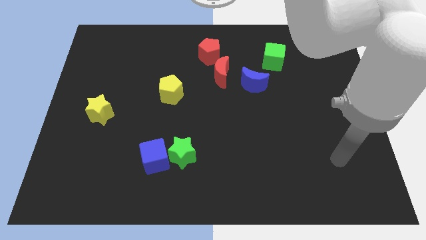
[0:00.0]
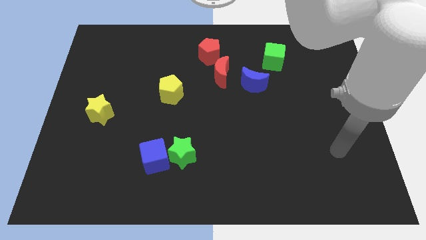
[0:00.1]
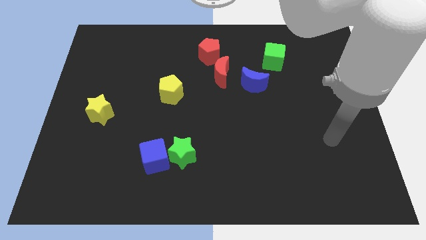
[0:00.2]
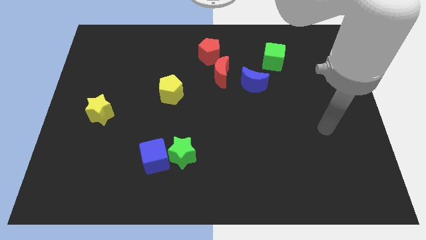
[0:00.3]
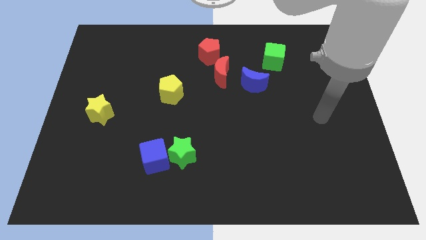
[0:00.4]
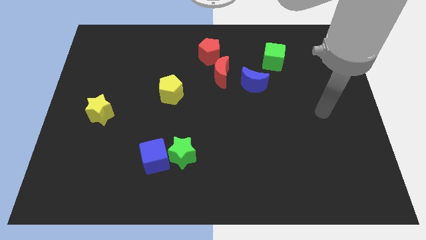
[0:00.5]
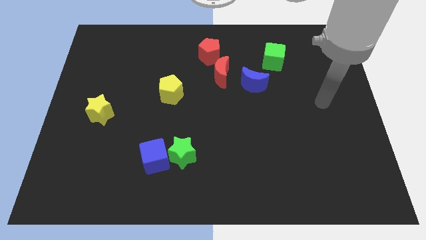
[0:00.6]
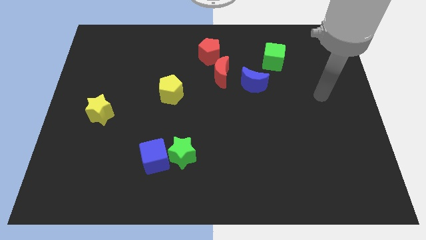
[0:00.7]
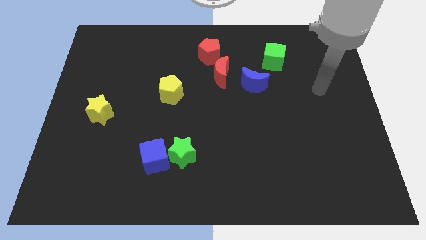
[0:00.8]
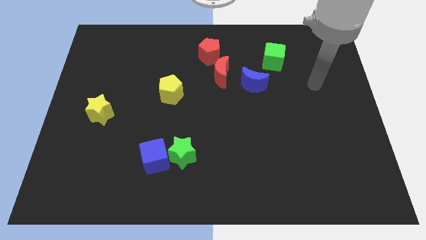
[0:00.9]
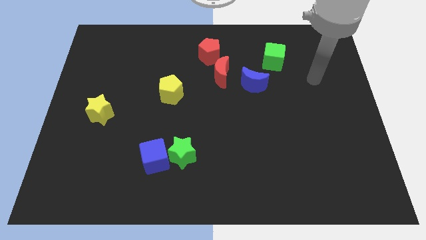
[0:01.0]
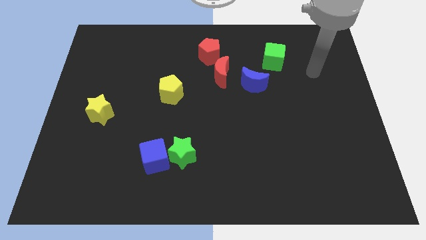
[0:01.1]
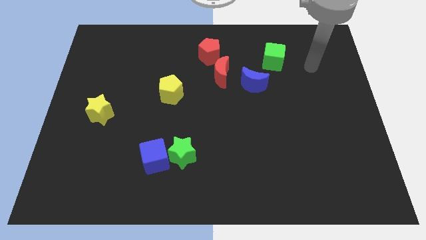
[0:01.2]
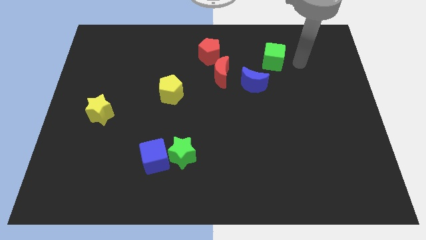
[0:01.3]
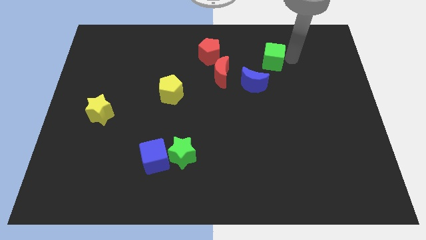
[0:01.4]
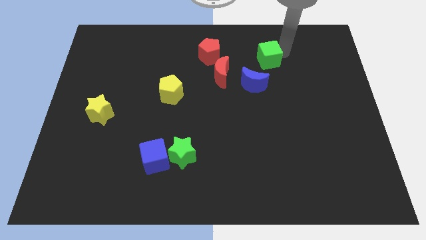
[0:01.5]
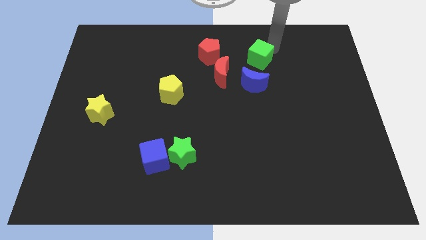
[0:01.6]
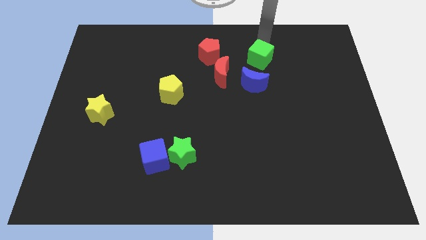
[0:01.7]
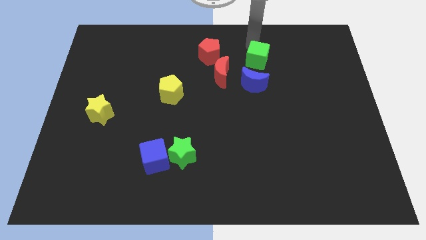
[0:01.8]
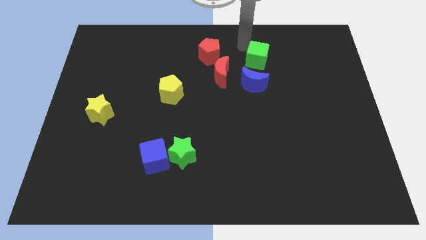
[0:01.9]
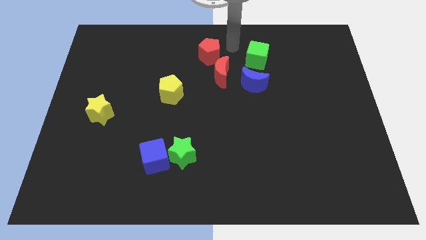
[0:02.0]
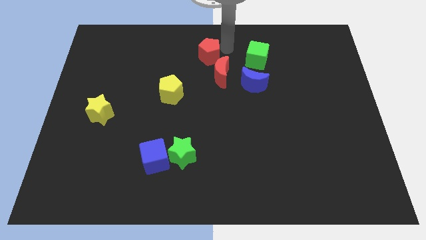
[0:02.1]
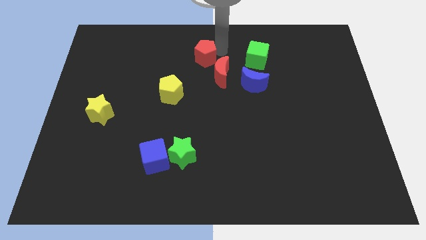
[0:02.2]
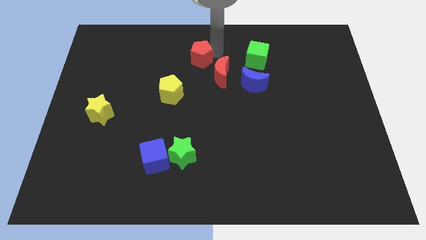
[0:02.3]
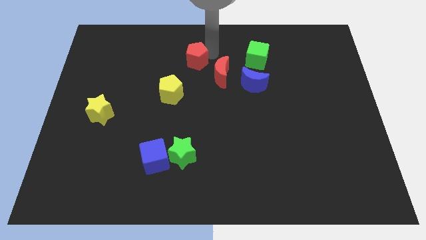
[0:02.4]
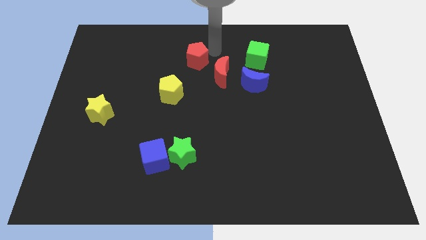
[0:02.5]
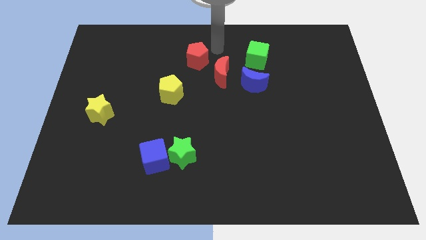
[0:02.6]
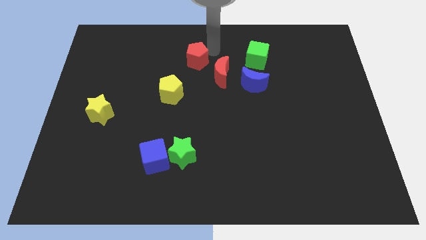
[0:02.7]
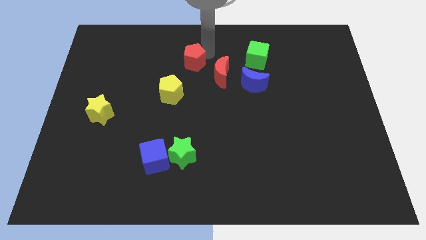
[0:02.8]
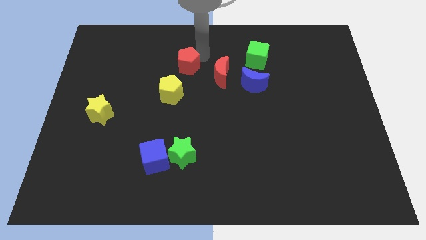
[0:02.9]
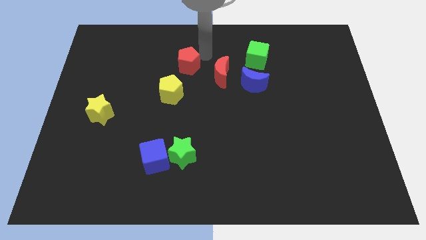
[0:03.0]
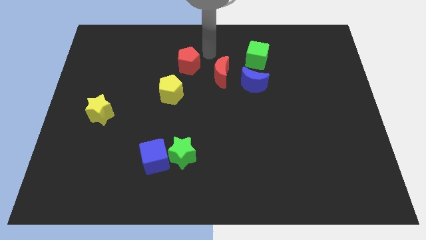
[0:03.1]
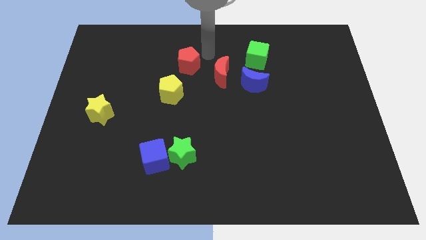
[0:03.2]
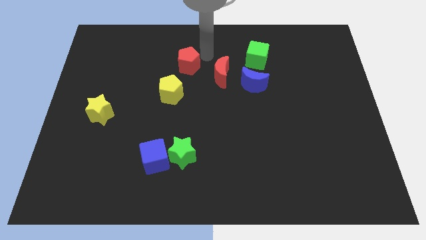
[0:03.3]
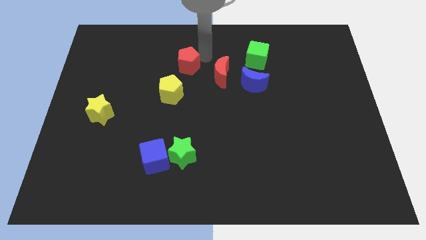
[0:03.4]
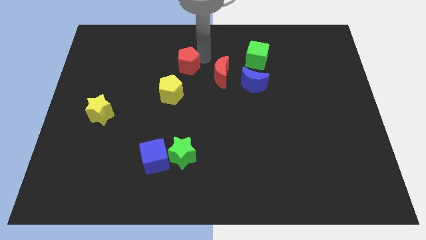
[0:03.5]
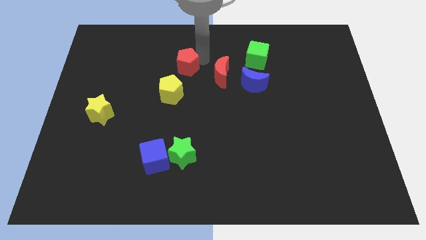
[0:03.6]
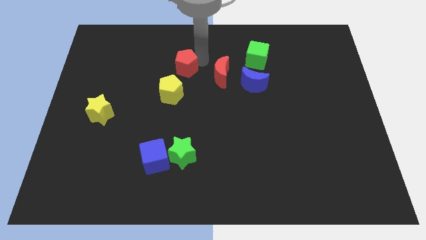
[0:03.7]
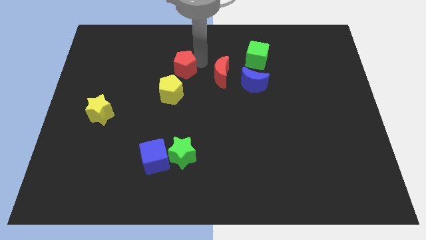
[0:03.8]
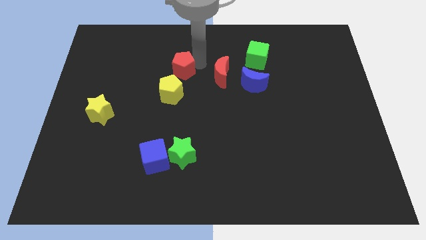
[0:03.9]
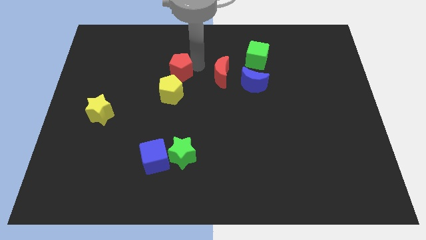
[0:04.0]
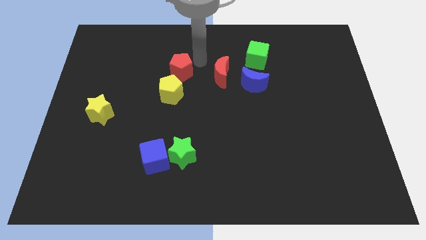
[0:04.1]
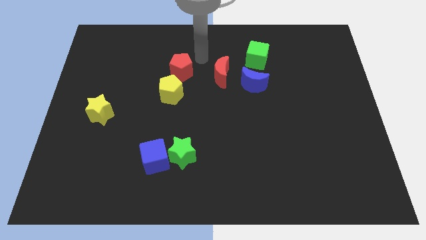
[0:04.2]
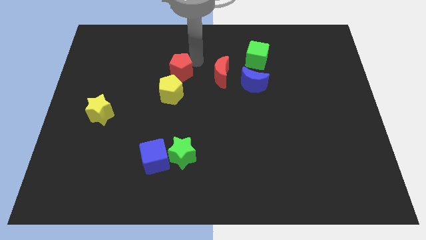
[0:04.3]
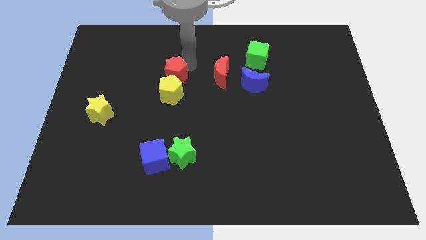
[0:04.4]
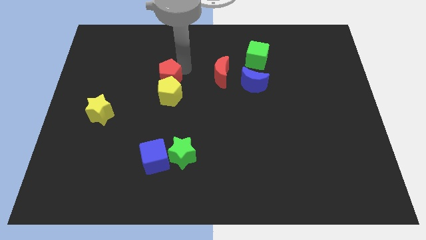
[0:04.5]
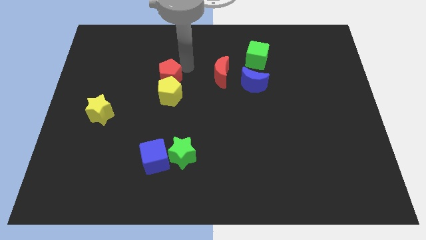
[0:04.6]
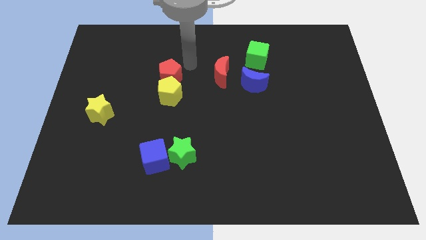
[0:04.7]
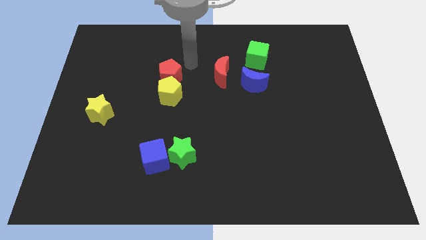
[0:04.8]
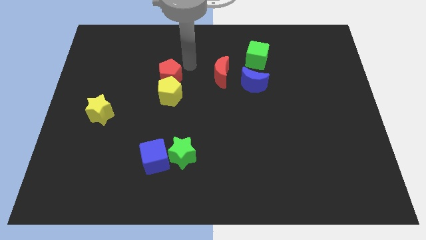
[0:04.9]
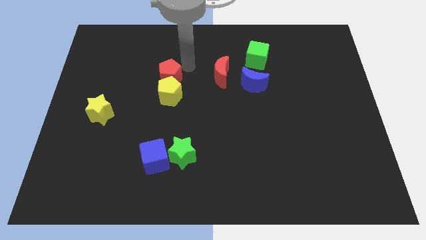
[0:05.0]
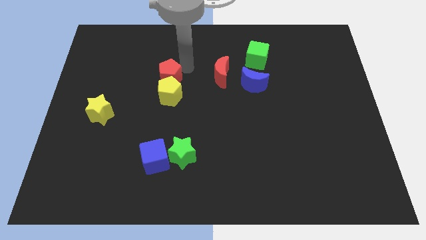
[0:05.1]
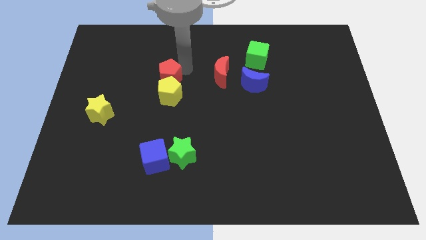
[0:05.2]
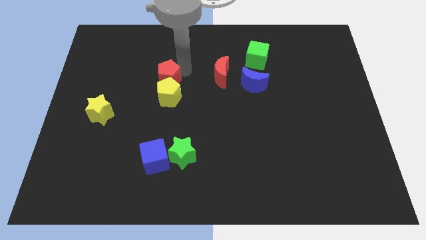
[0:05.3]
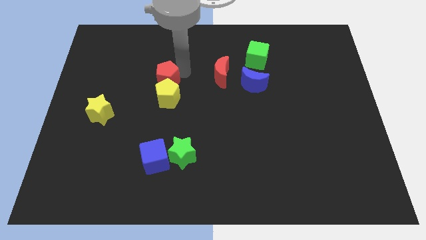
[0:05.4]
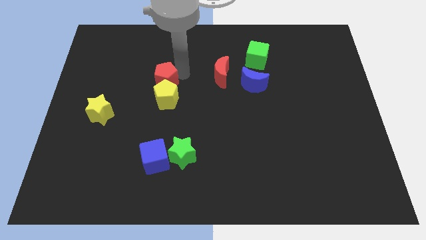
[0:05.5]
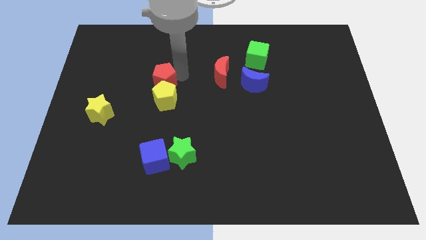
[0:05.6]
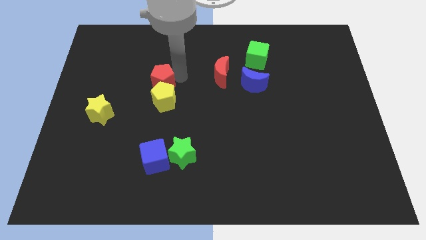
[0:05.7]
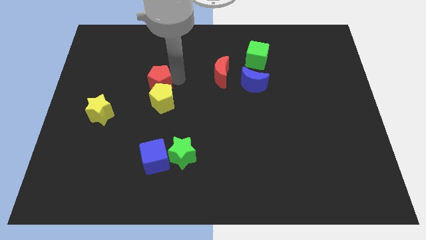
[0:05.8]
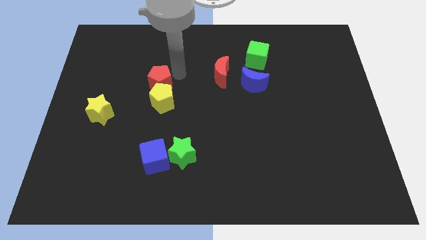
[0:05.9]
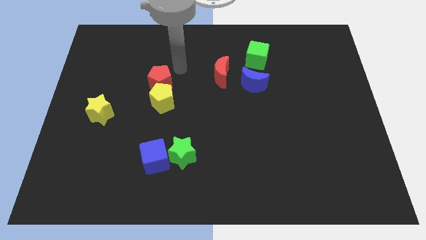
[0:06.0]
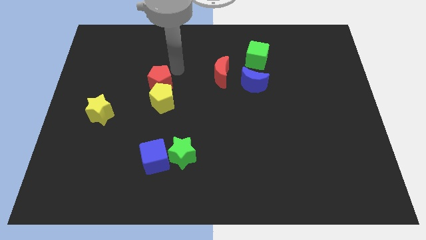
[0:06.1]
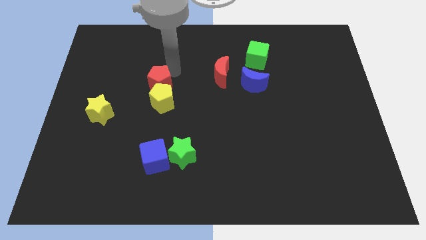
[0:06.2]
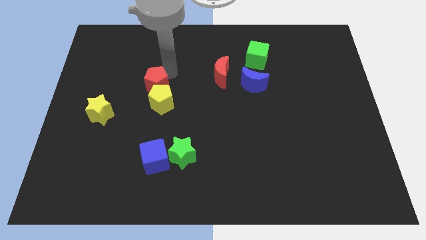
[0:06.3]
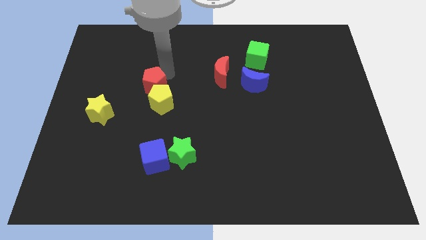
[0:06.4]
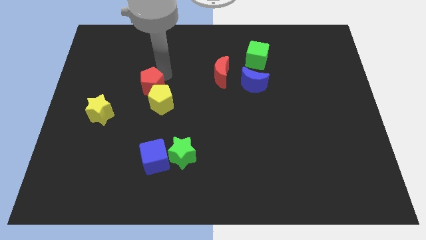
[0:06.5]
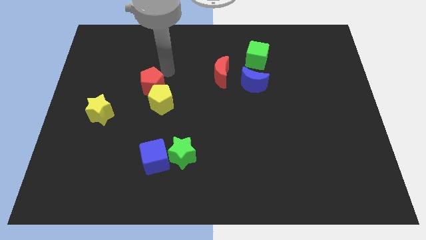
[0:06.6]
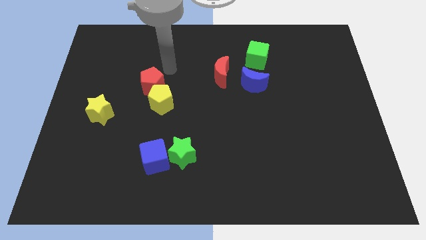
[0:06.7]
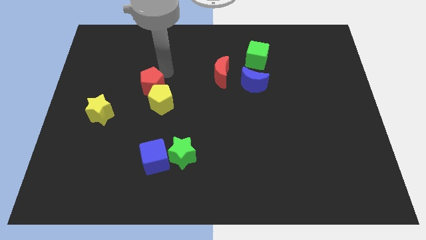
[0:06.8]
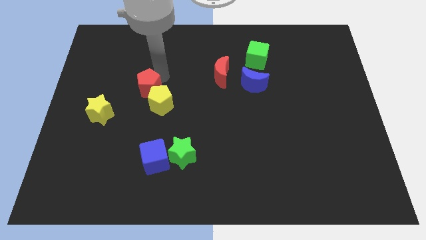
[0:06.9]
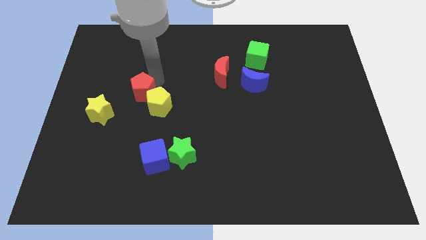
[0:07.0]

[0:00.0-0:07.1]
move the red pentagon downwards and to the left

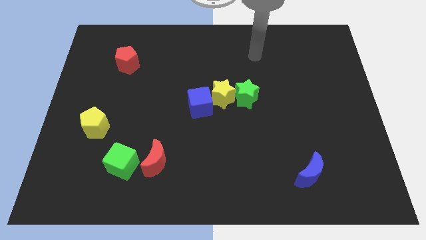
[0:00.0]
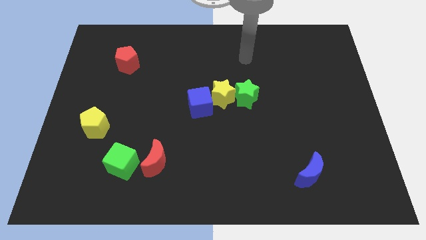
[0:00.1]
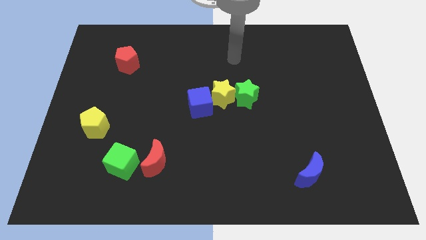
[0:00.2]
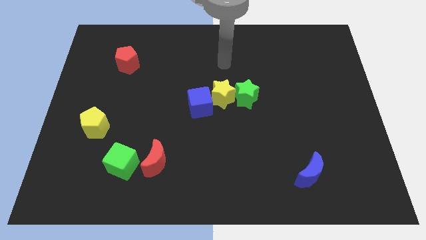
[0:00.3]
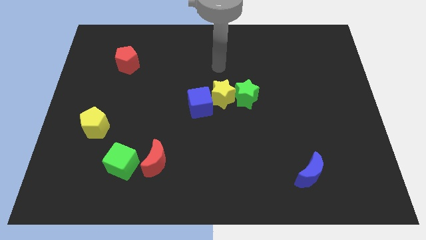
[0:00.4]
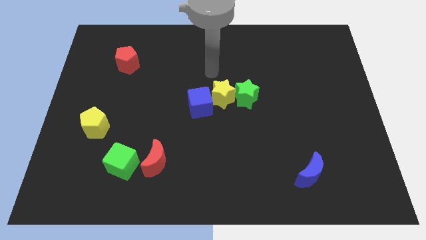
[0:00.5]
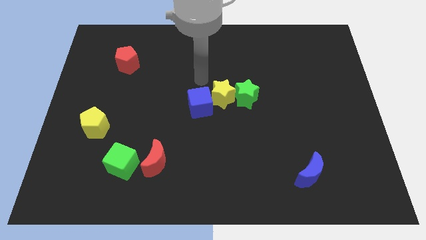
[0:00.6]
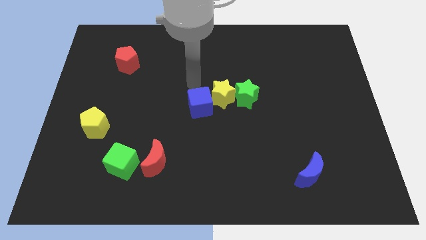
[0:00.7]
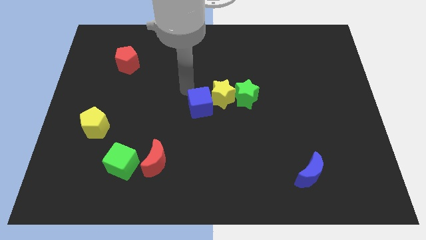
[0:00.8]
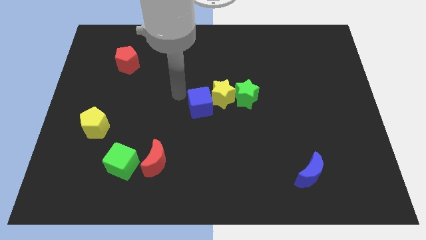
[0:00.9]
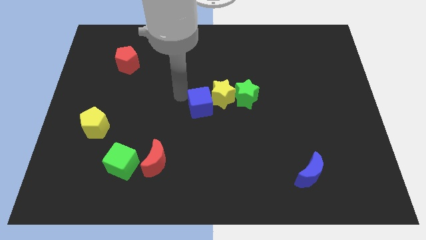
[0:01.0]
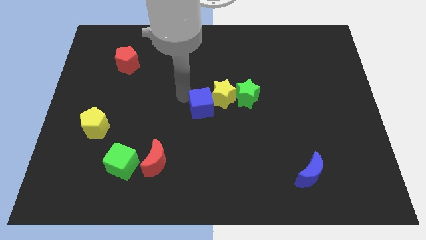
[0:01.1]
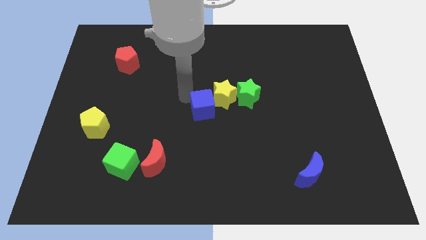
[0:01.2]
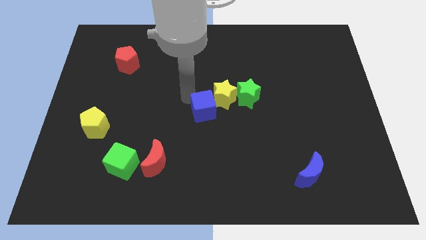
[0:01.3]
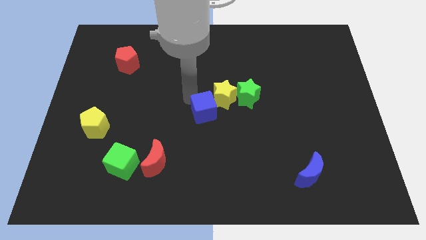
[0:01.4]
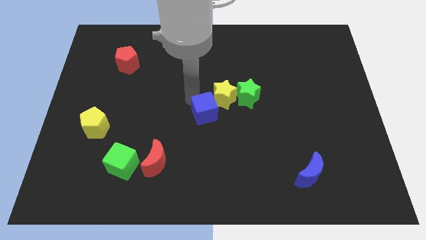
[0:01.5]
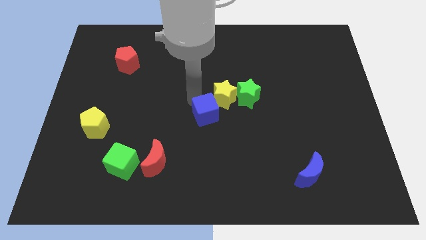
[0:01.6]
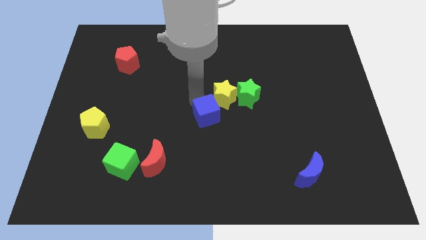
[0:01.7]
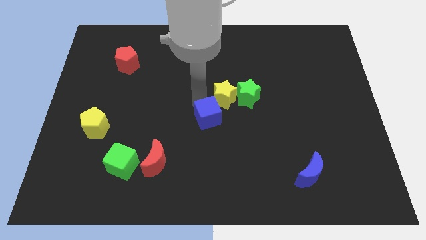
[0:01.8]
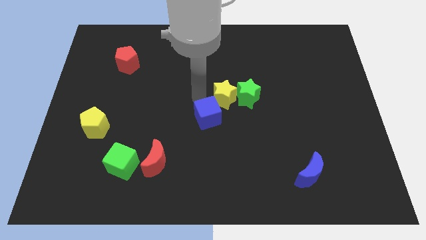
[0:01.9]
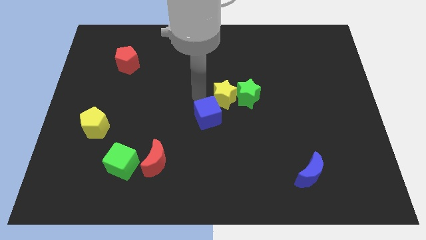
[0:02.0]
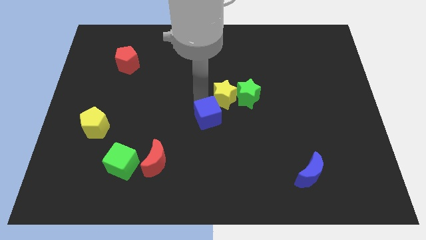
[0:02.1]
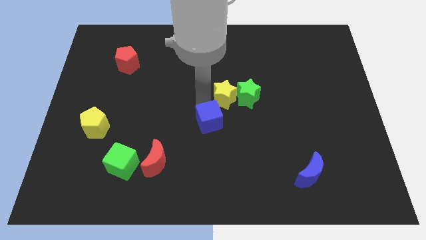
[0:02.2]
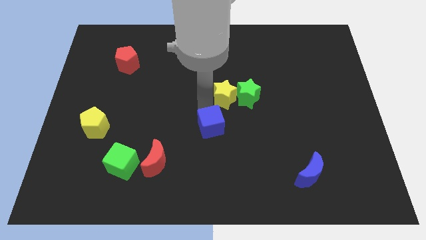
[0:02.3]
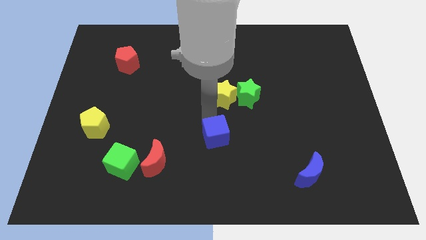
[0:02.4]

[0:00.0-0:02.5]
slide the blue cube down slightly
